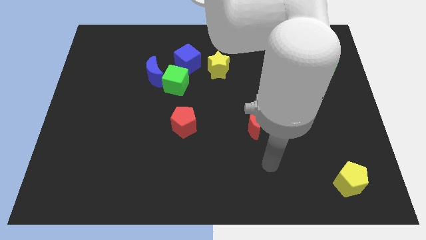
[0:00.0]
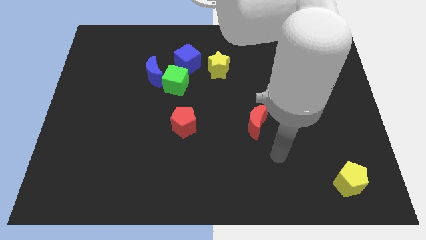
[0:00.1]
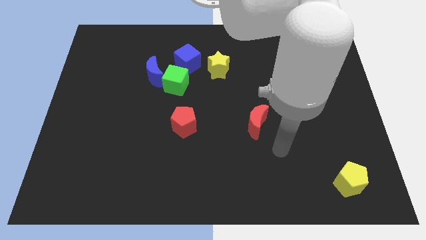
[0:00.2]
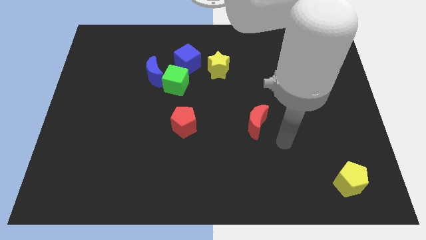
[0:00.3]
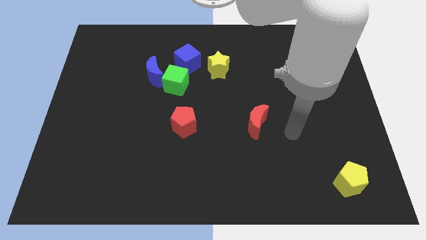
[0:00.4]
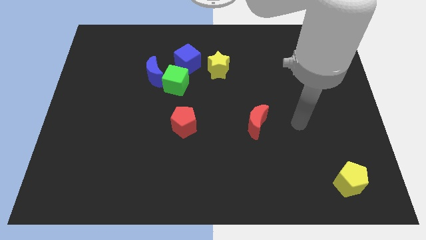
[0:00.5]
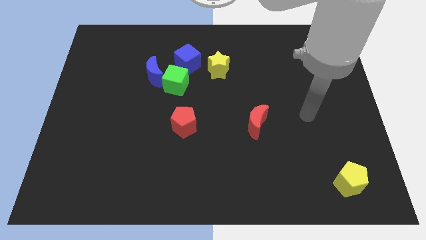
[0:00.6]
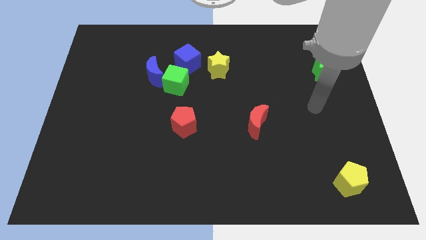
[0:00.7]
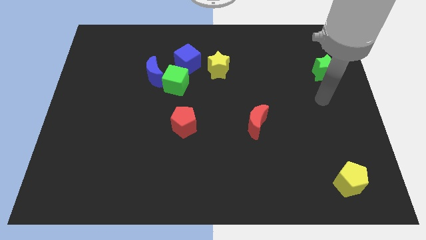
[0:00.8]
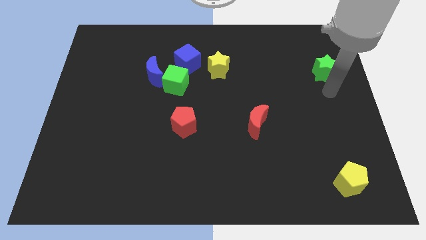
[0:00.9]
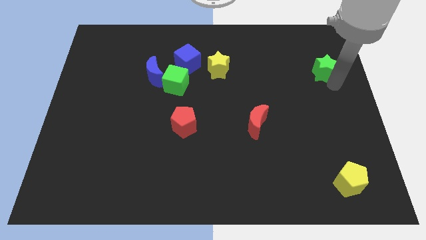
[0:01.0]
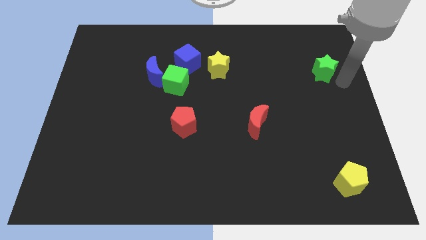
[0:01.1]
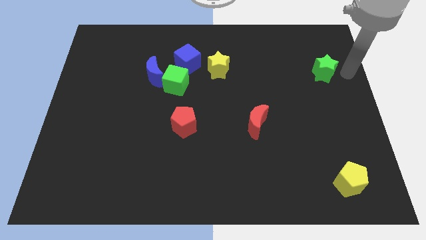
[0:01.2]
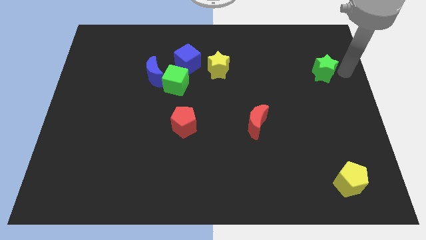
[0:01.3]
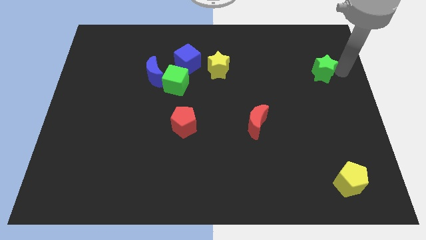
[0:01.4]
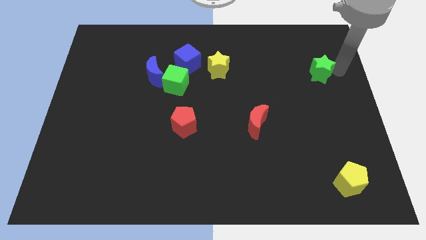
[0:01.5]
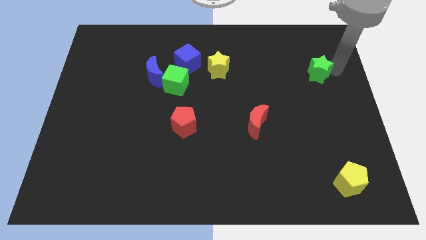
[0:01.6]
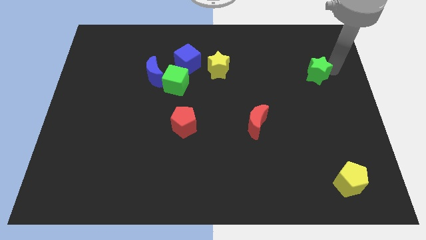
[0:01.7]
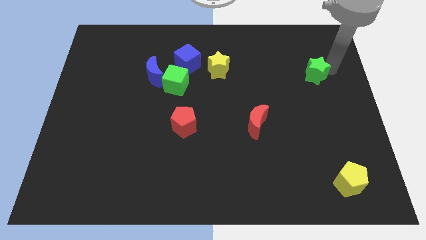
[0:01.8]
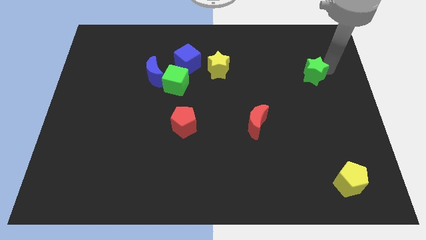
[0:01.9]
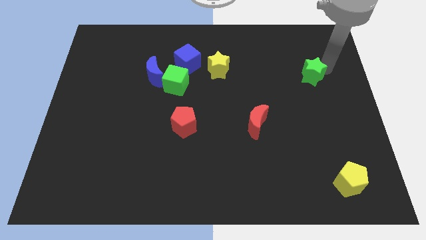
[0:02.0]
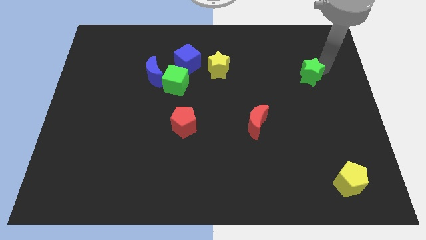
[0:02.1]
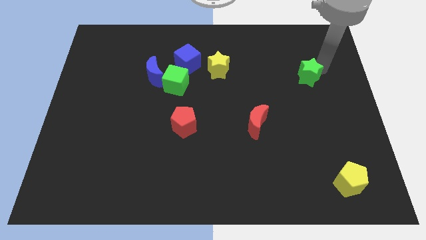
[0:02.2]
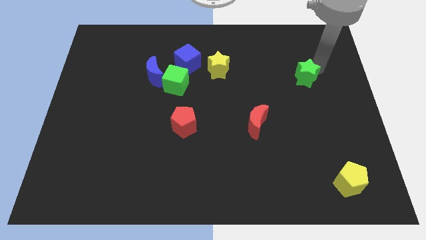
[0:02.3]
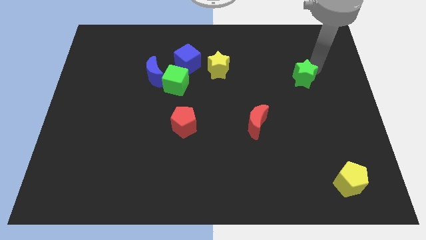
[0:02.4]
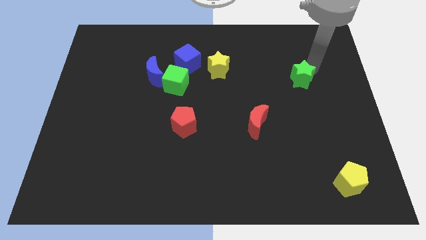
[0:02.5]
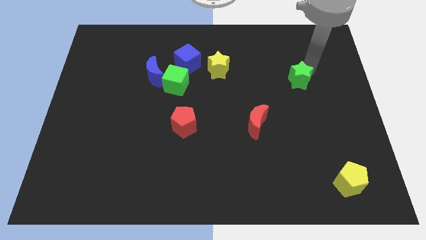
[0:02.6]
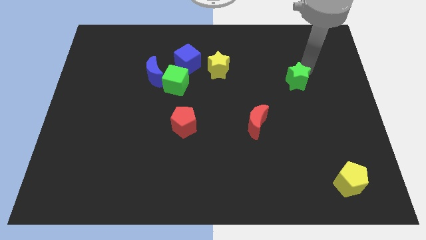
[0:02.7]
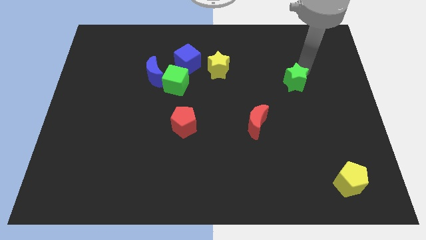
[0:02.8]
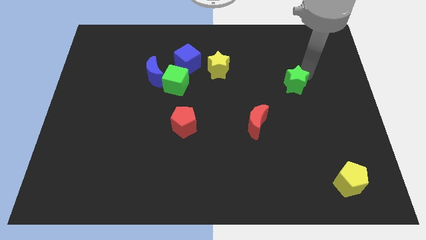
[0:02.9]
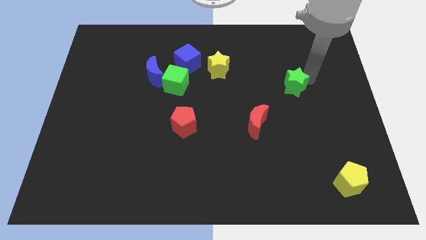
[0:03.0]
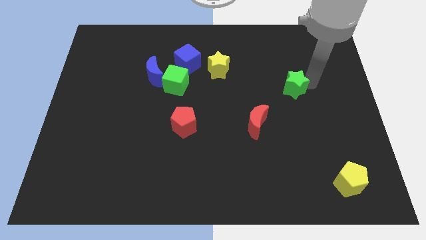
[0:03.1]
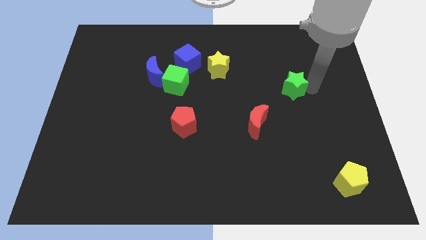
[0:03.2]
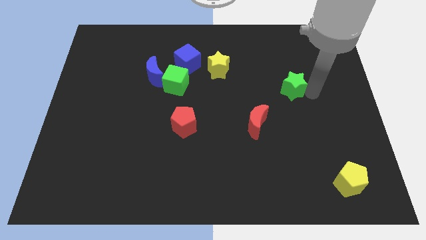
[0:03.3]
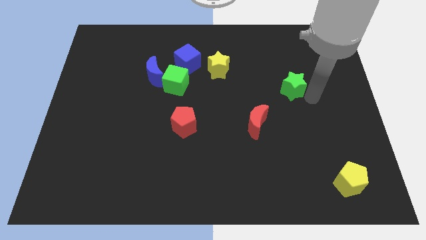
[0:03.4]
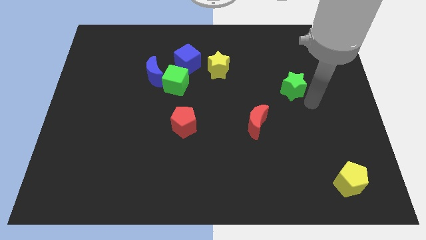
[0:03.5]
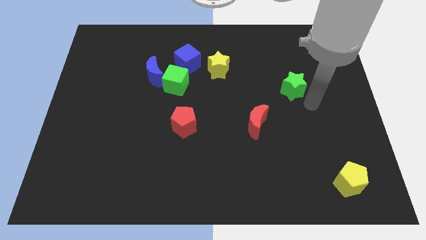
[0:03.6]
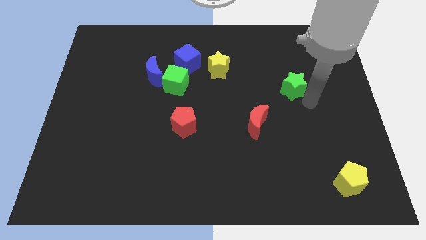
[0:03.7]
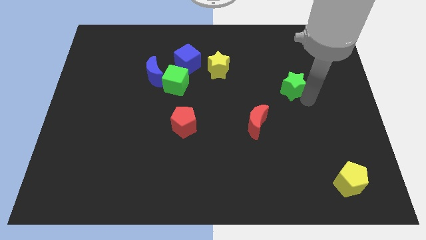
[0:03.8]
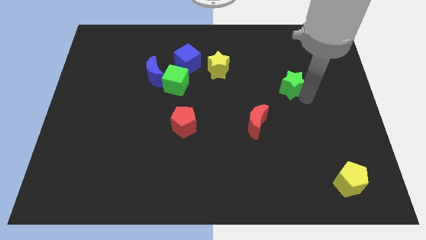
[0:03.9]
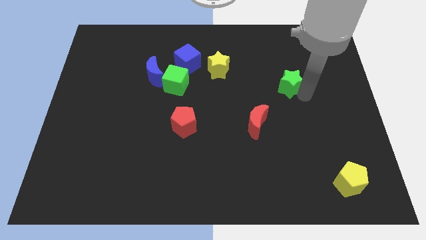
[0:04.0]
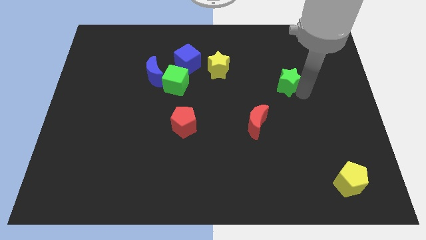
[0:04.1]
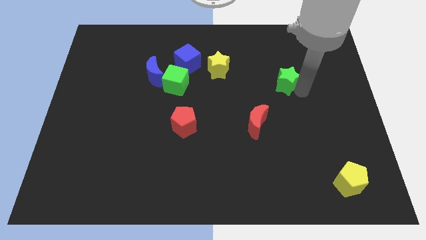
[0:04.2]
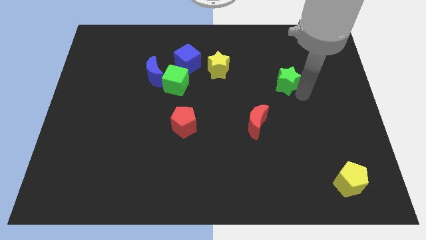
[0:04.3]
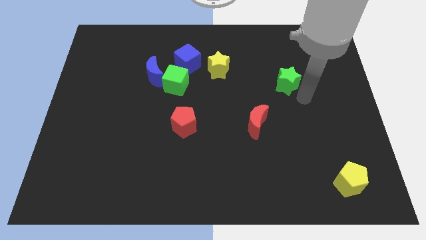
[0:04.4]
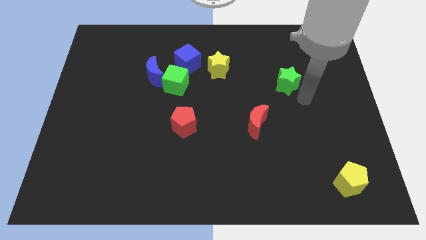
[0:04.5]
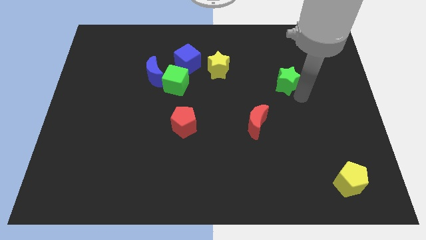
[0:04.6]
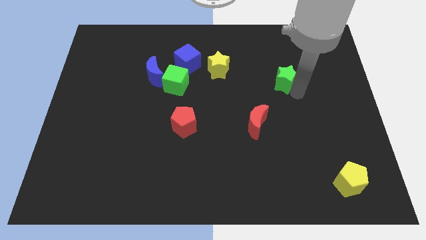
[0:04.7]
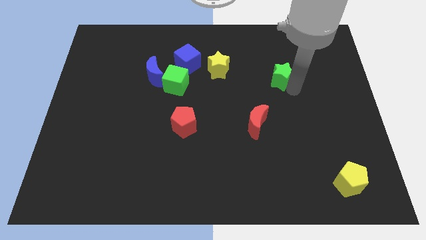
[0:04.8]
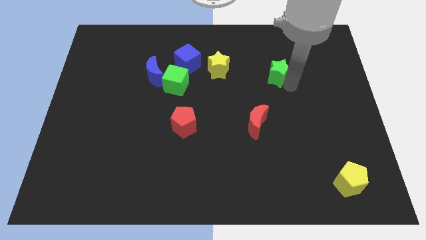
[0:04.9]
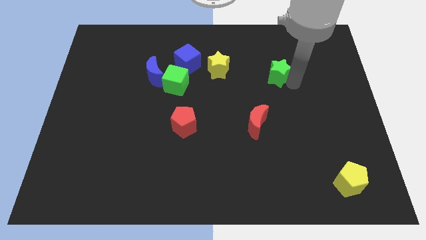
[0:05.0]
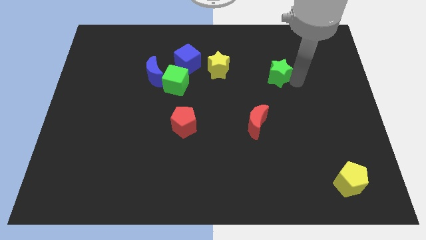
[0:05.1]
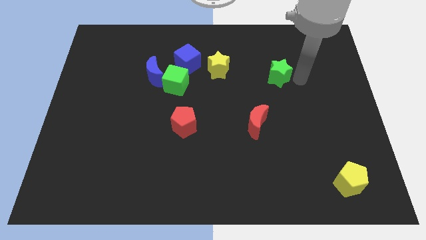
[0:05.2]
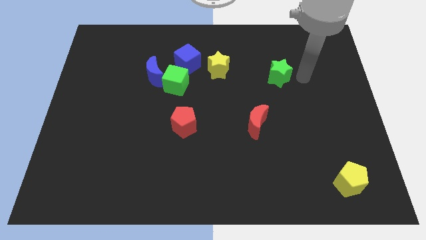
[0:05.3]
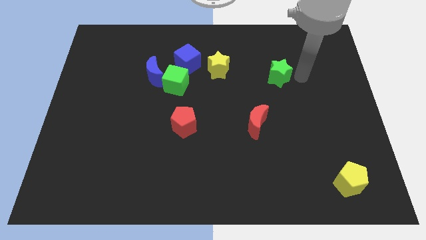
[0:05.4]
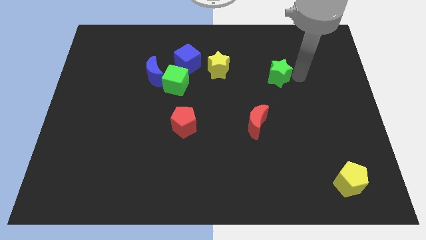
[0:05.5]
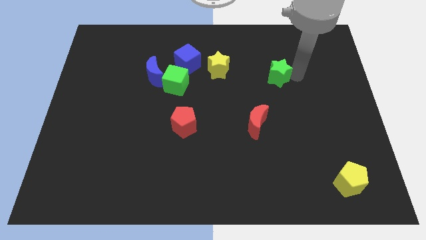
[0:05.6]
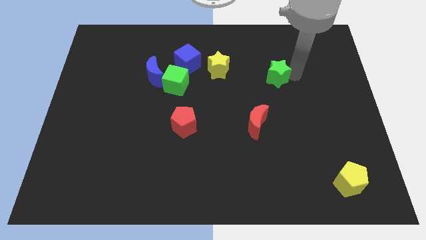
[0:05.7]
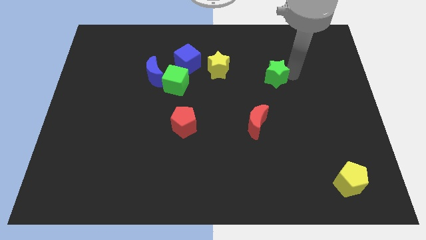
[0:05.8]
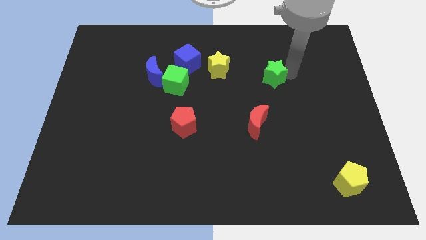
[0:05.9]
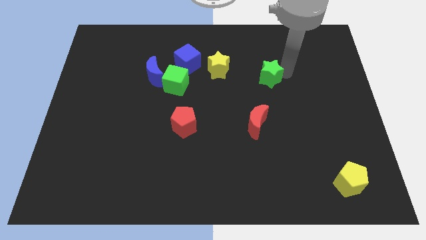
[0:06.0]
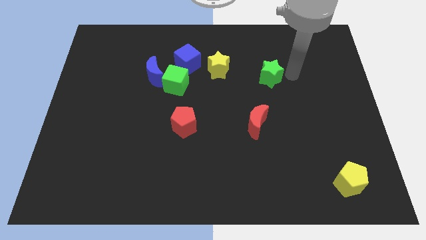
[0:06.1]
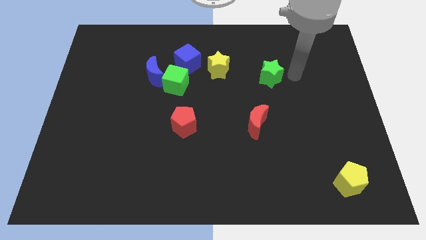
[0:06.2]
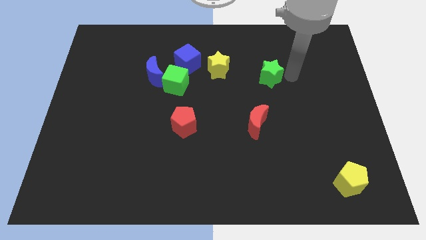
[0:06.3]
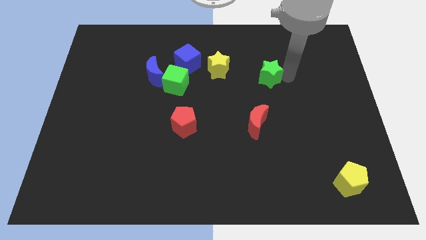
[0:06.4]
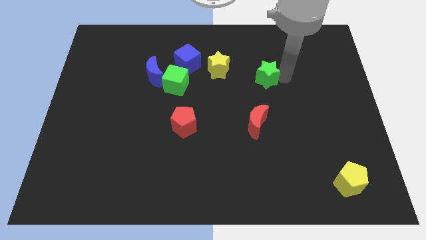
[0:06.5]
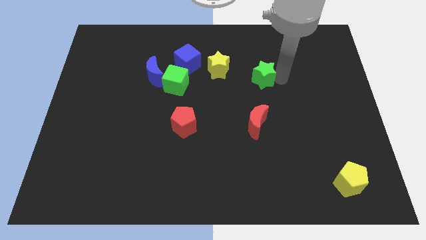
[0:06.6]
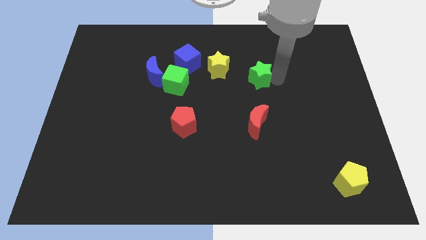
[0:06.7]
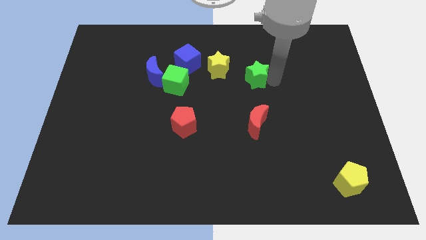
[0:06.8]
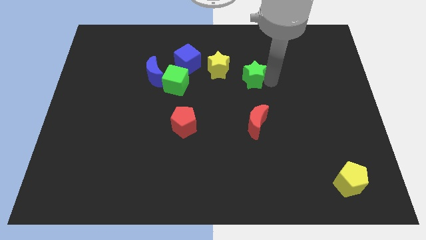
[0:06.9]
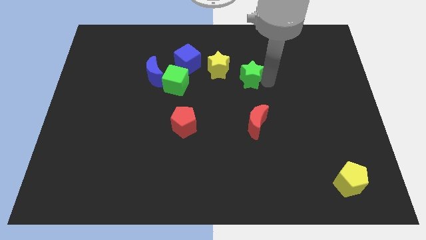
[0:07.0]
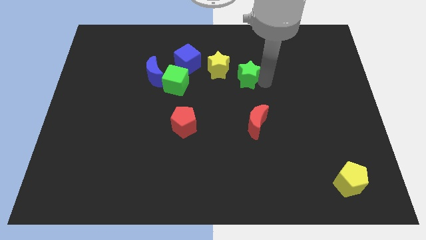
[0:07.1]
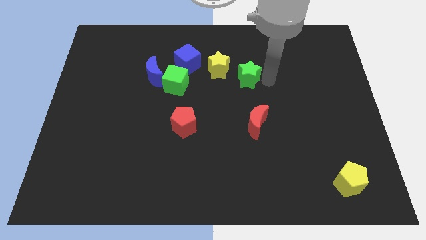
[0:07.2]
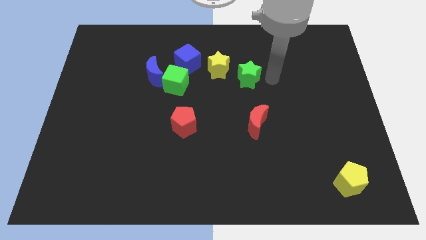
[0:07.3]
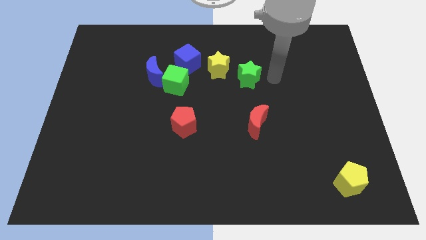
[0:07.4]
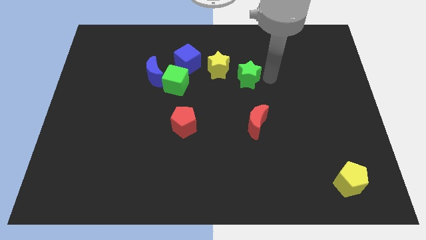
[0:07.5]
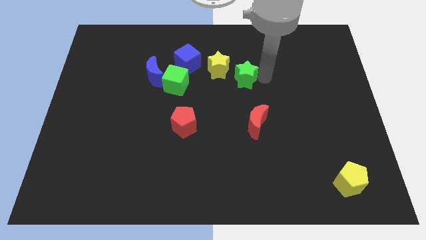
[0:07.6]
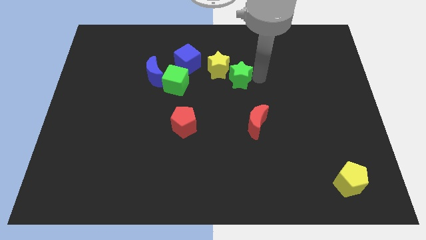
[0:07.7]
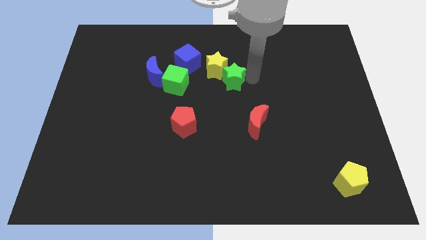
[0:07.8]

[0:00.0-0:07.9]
push the green star next to the yellow star
